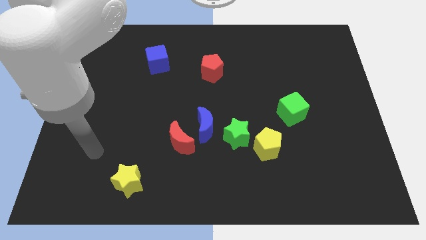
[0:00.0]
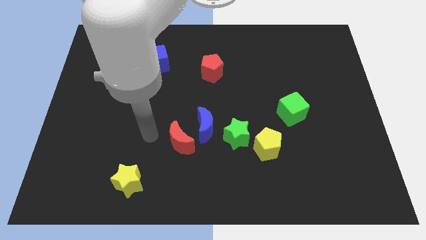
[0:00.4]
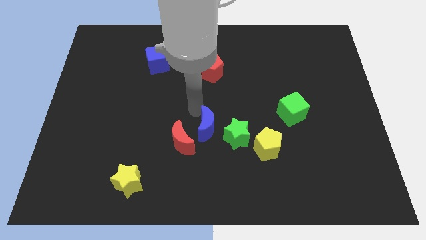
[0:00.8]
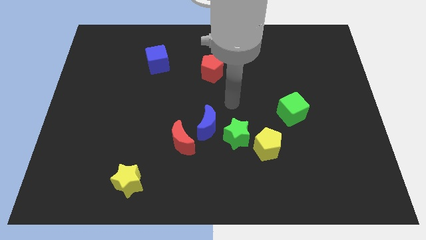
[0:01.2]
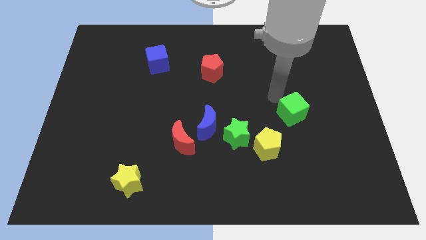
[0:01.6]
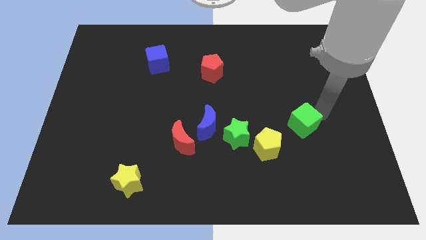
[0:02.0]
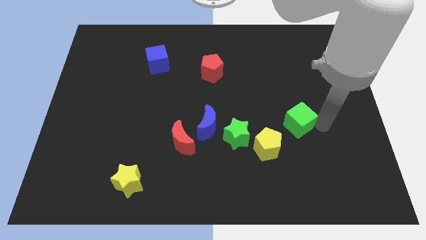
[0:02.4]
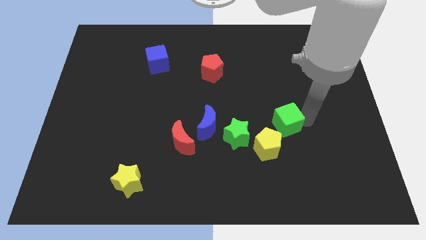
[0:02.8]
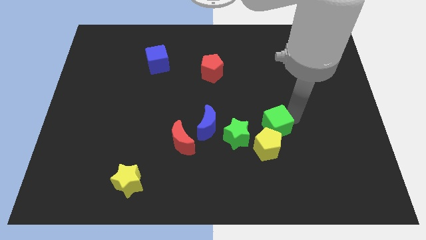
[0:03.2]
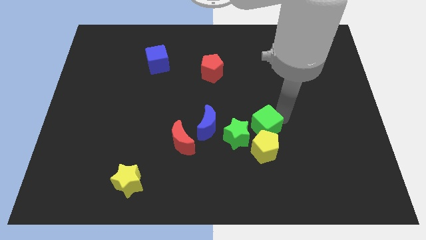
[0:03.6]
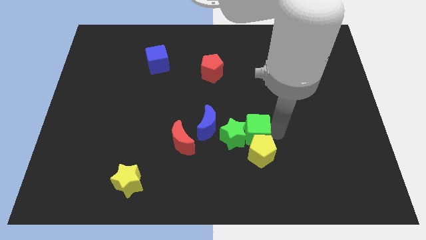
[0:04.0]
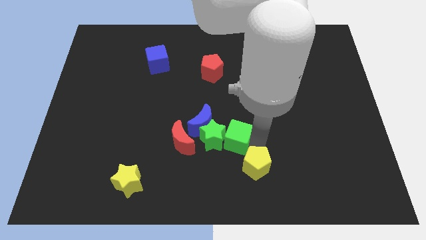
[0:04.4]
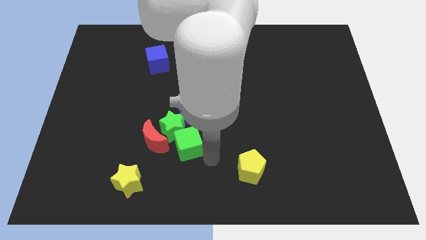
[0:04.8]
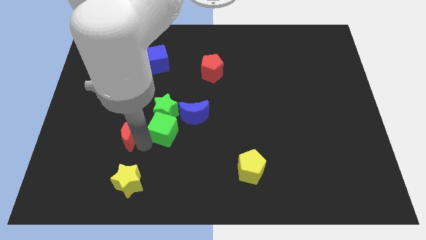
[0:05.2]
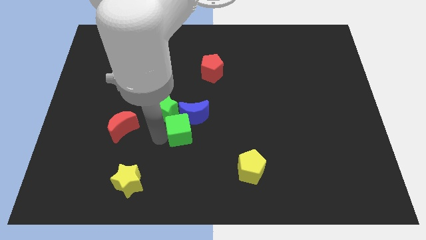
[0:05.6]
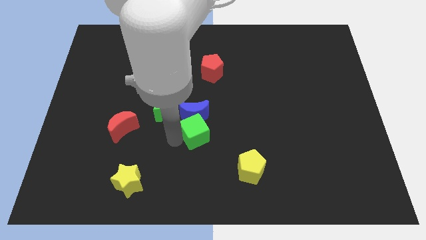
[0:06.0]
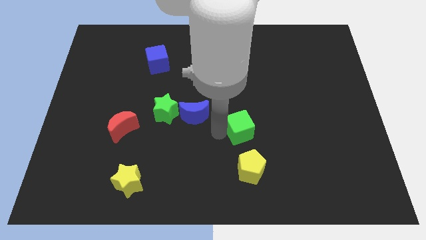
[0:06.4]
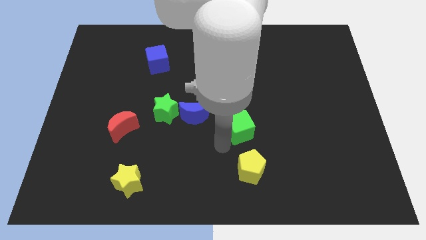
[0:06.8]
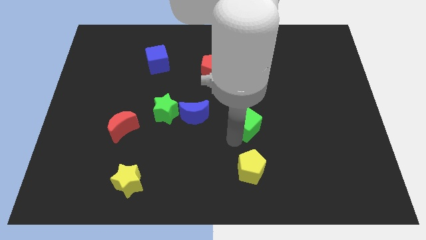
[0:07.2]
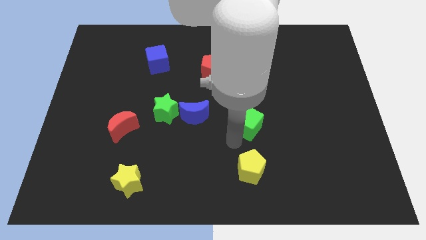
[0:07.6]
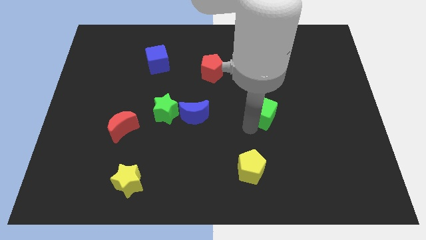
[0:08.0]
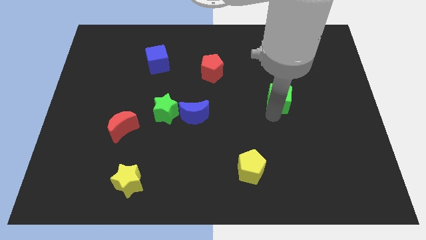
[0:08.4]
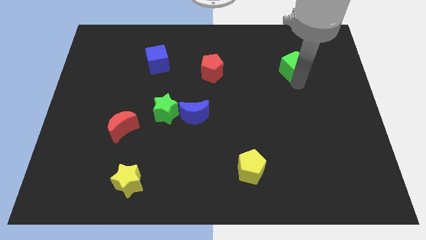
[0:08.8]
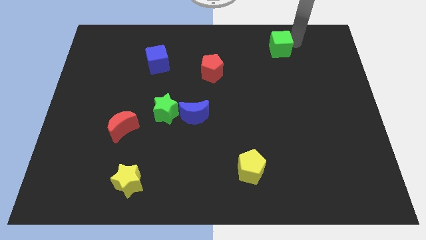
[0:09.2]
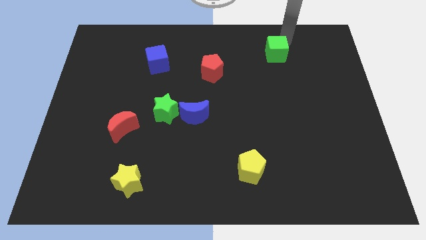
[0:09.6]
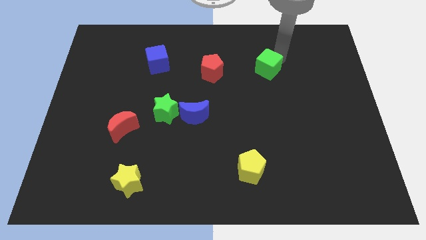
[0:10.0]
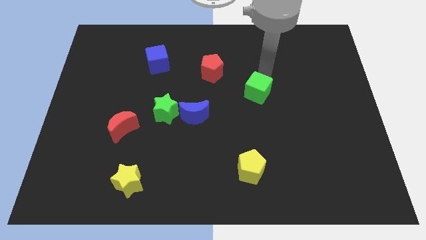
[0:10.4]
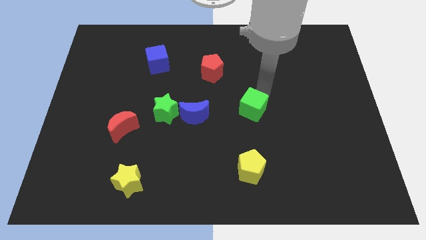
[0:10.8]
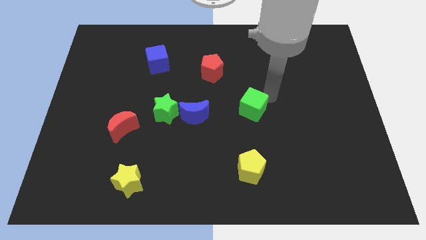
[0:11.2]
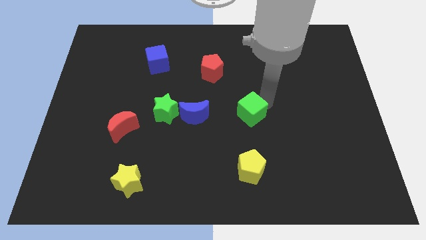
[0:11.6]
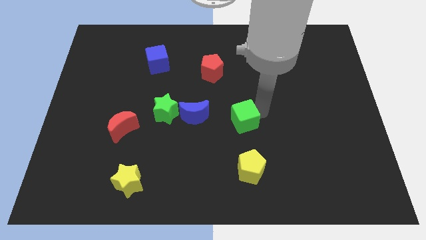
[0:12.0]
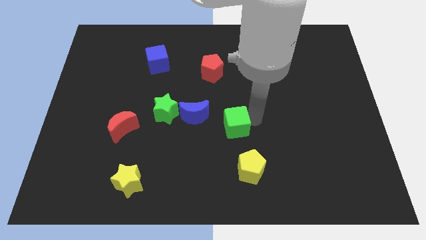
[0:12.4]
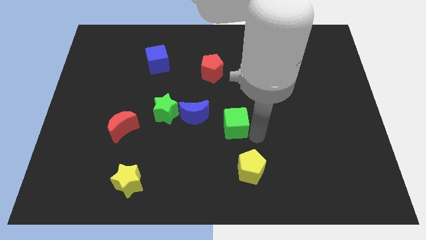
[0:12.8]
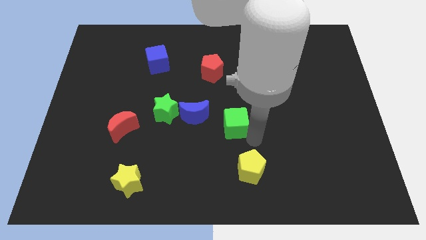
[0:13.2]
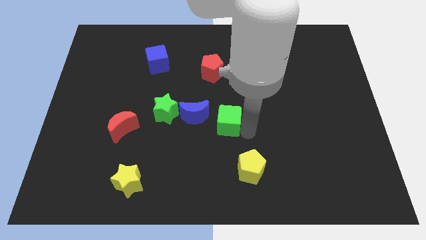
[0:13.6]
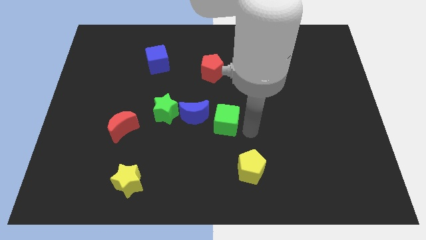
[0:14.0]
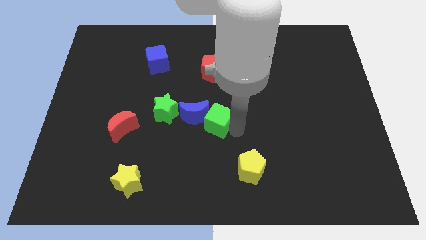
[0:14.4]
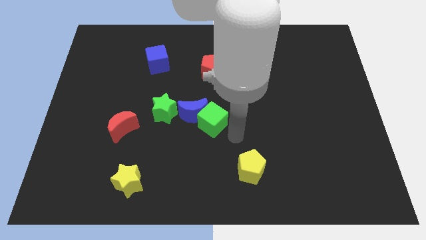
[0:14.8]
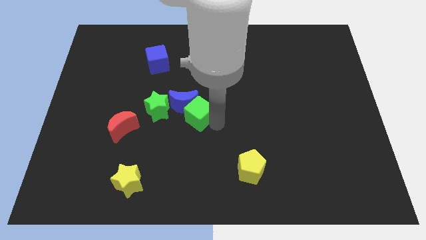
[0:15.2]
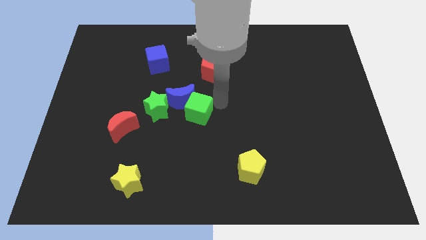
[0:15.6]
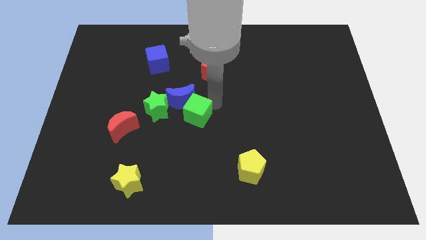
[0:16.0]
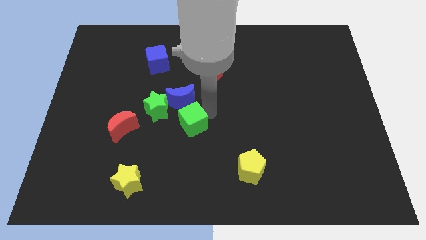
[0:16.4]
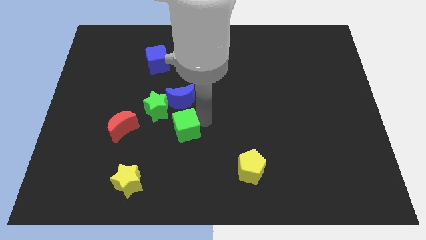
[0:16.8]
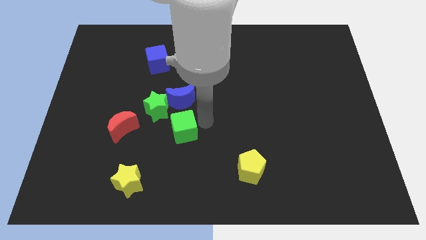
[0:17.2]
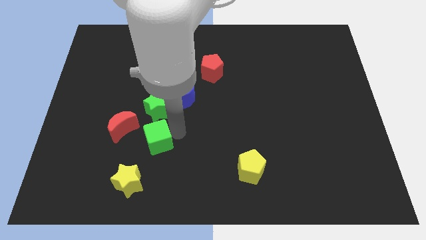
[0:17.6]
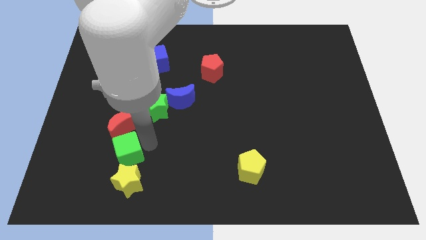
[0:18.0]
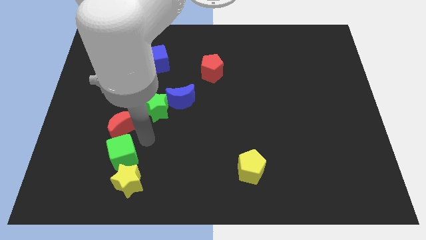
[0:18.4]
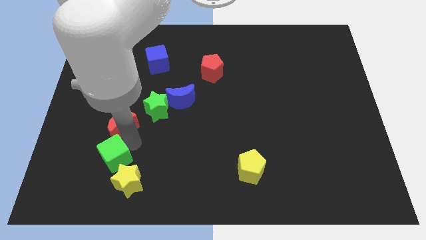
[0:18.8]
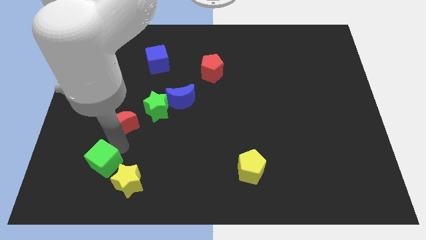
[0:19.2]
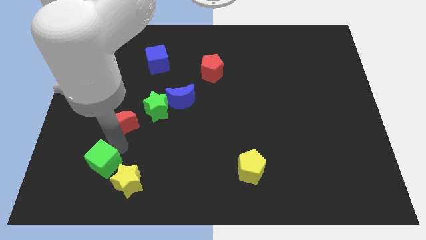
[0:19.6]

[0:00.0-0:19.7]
move the green cube left of the yellow star

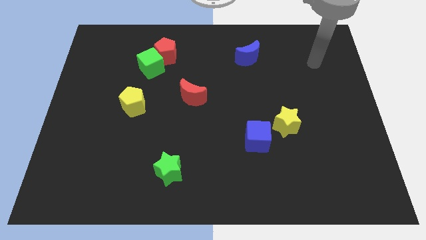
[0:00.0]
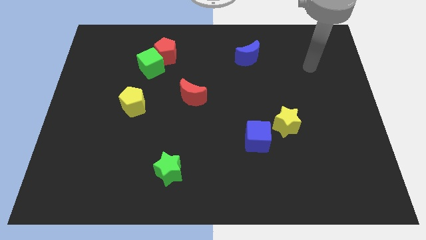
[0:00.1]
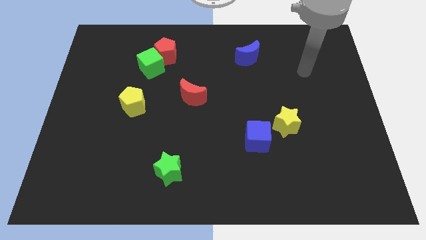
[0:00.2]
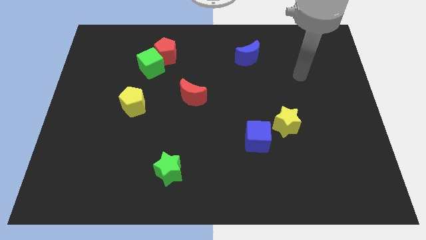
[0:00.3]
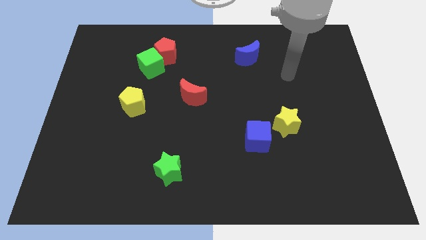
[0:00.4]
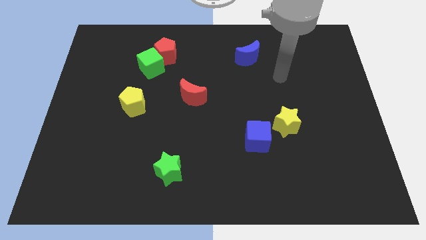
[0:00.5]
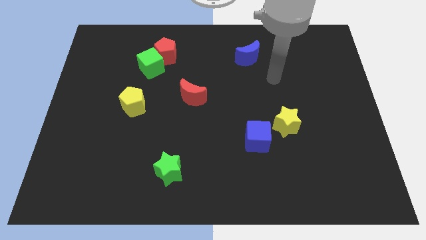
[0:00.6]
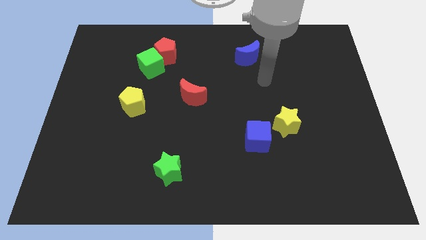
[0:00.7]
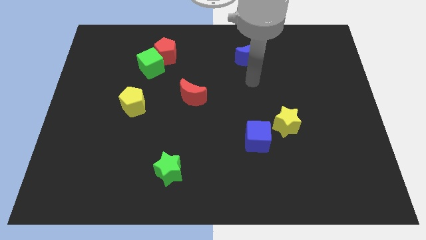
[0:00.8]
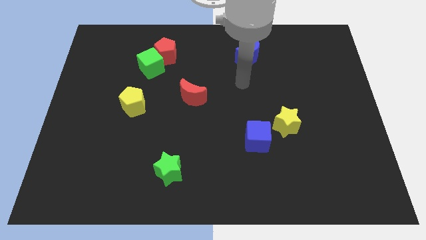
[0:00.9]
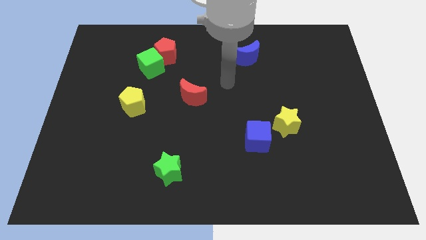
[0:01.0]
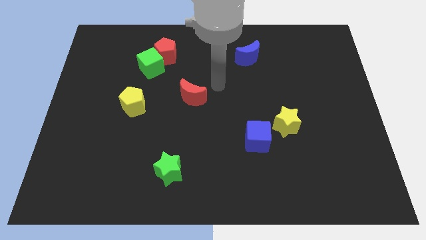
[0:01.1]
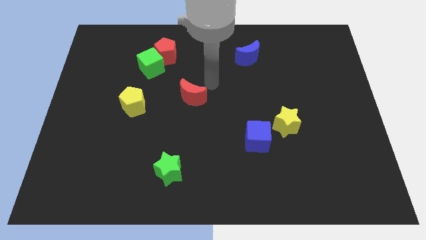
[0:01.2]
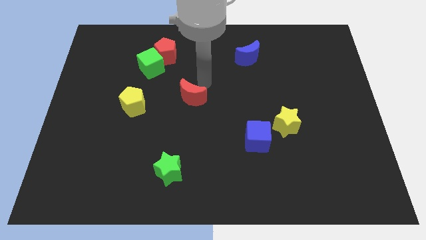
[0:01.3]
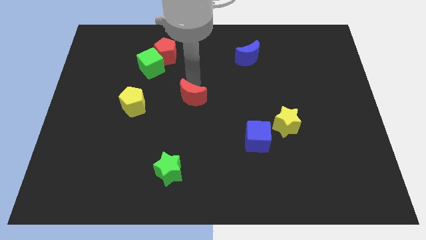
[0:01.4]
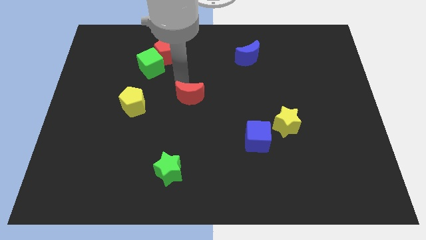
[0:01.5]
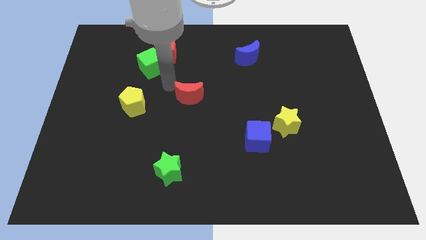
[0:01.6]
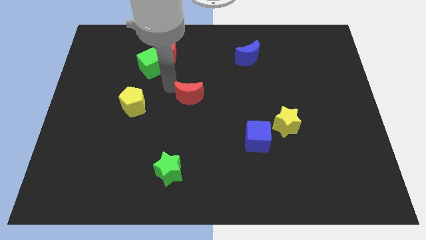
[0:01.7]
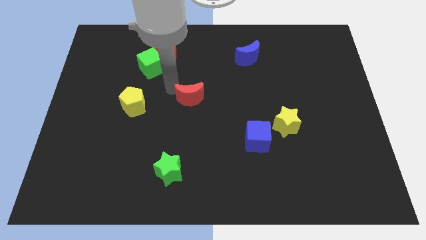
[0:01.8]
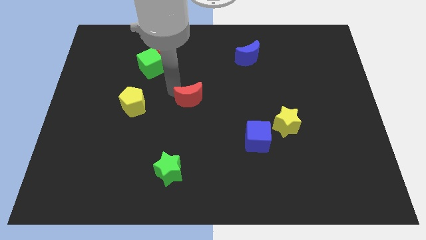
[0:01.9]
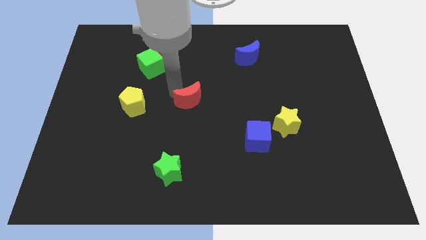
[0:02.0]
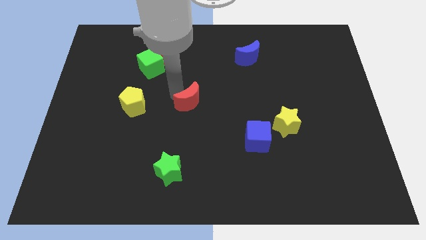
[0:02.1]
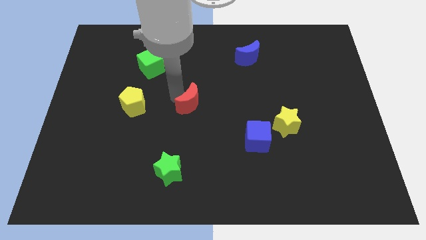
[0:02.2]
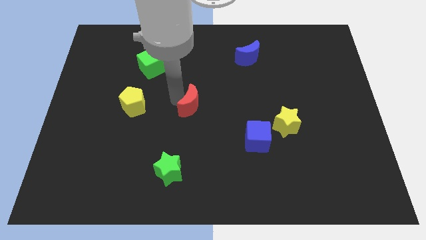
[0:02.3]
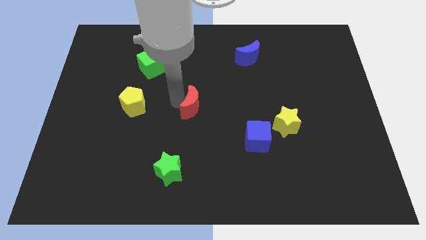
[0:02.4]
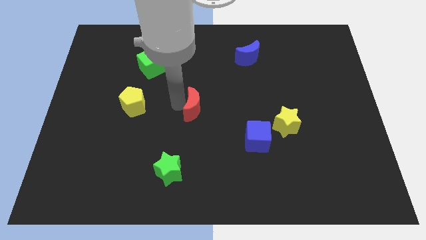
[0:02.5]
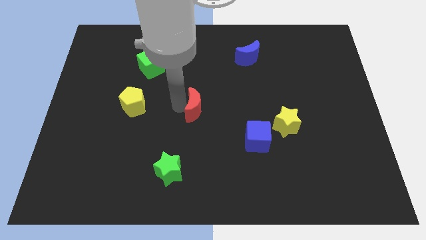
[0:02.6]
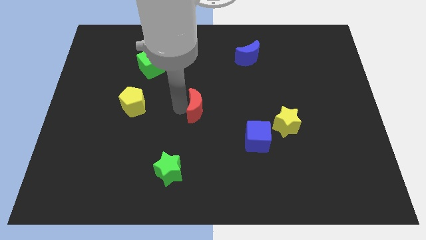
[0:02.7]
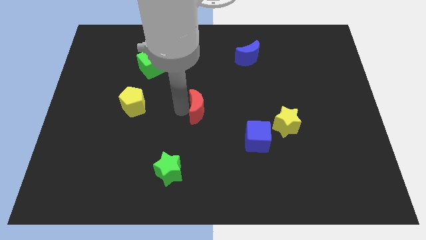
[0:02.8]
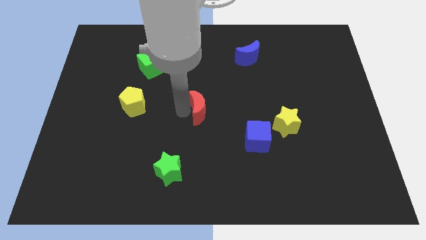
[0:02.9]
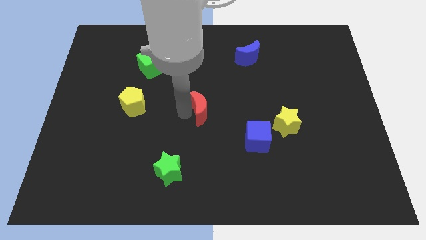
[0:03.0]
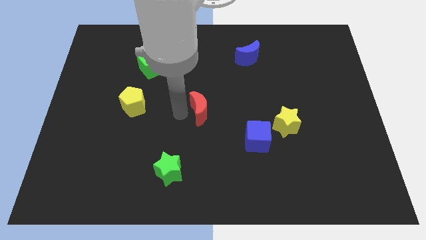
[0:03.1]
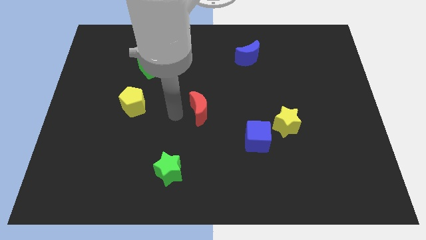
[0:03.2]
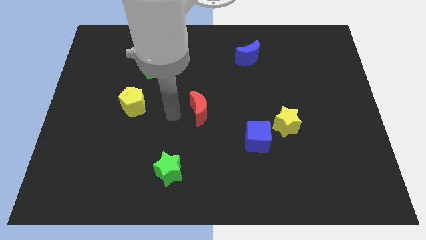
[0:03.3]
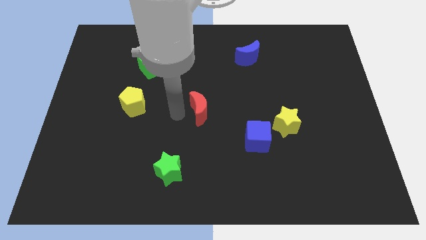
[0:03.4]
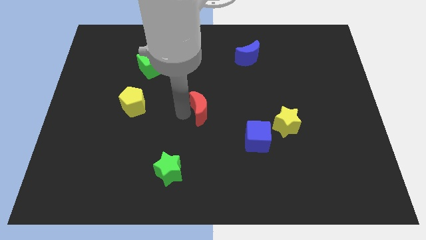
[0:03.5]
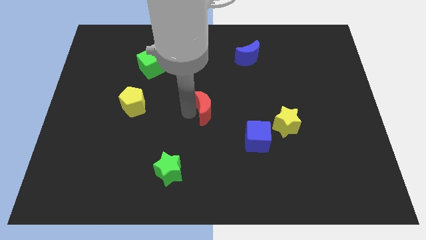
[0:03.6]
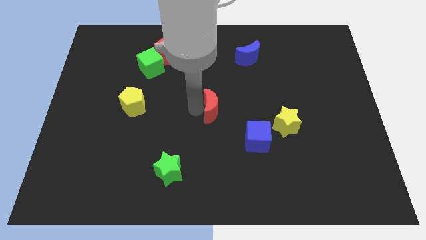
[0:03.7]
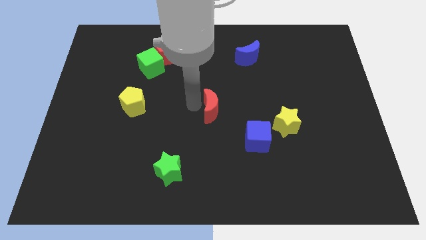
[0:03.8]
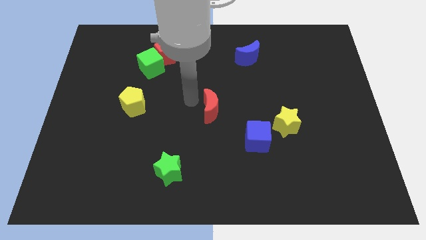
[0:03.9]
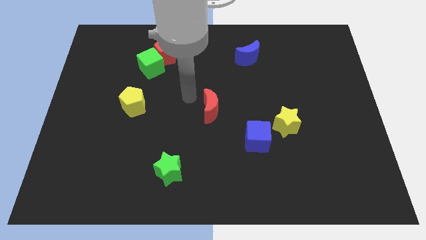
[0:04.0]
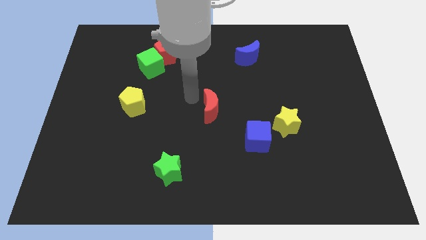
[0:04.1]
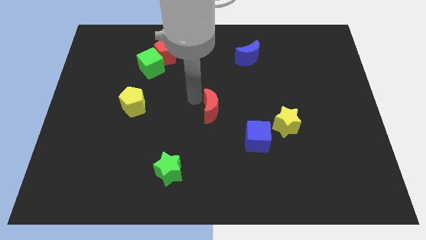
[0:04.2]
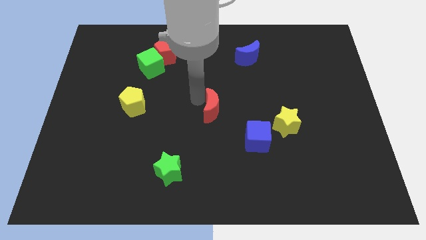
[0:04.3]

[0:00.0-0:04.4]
push the red moon to the top left of the blue cube
